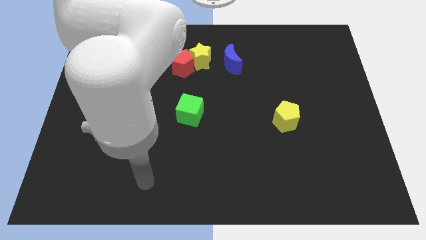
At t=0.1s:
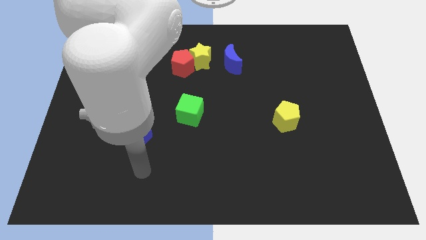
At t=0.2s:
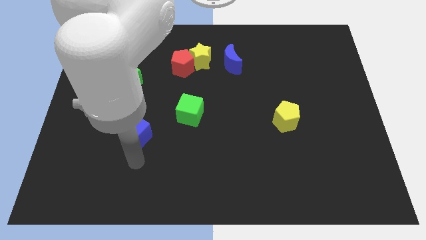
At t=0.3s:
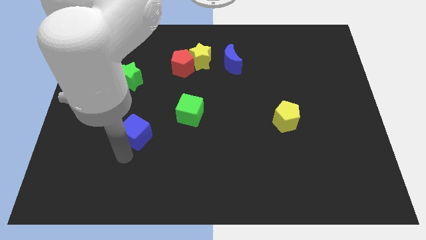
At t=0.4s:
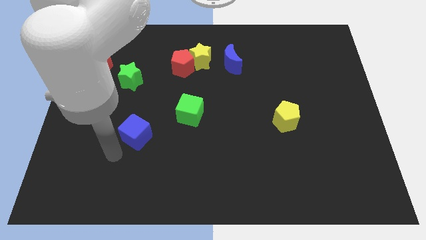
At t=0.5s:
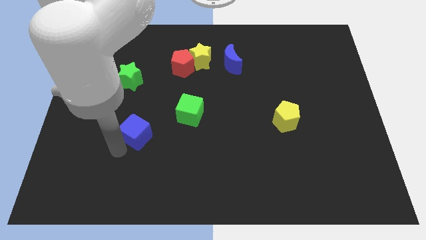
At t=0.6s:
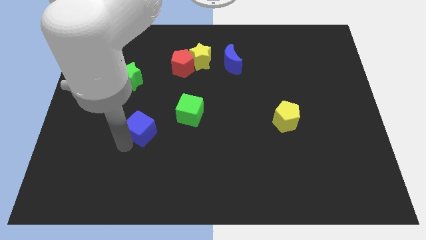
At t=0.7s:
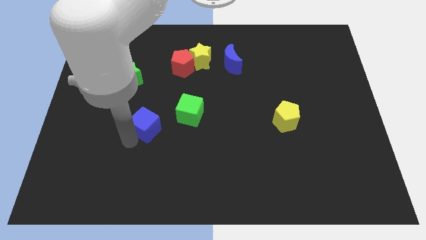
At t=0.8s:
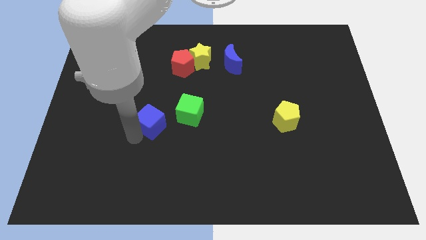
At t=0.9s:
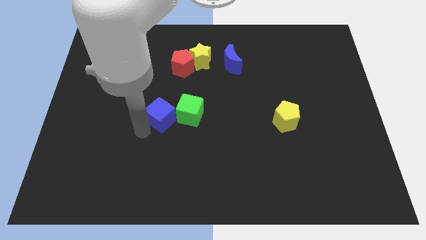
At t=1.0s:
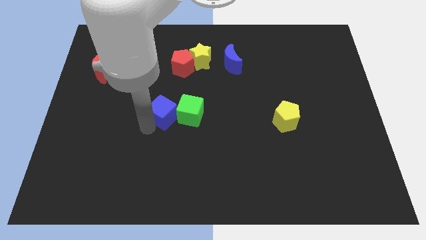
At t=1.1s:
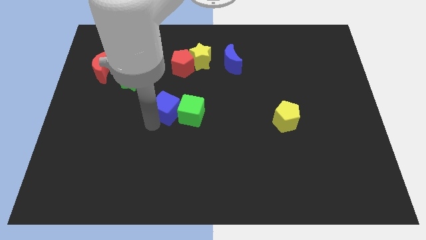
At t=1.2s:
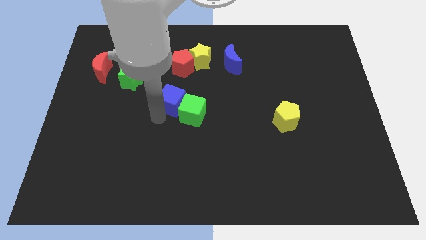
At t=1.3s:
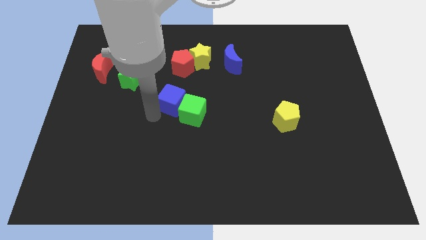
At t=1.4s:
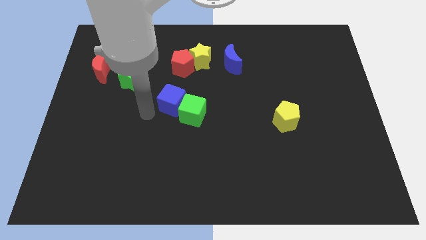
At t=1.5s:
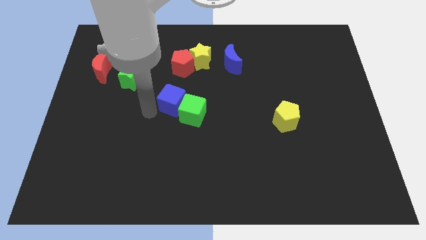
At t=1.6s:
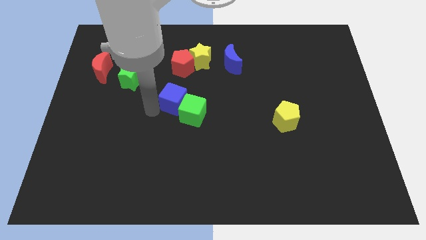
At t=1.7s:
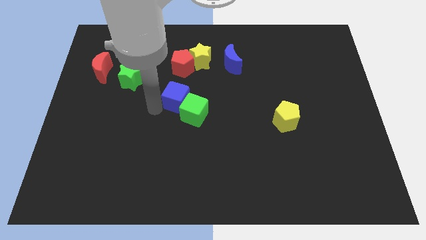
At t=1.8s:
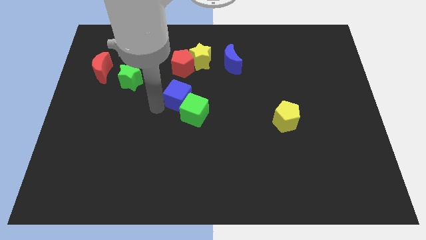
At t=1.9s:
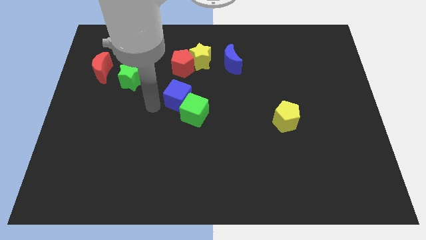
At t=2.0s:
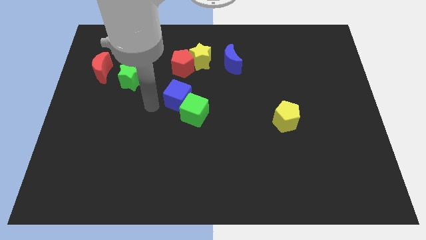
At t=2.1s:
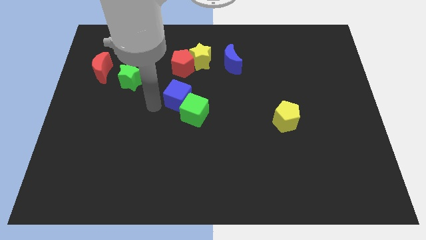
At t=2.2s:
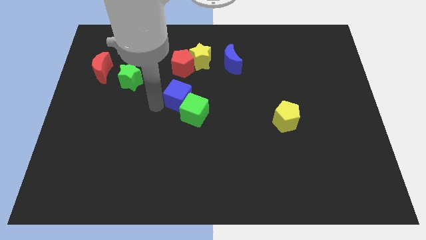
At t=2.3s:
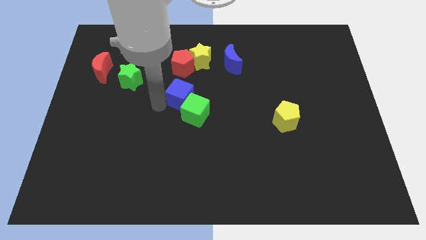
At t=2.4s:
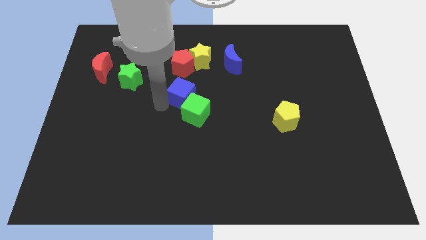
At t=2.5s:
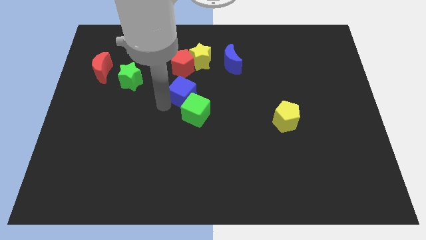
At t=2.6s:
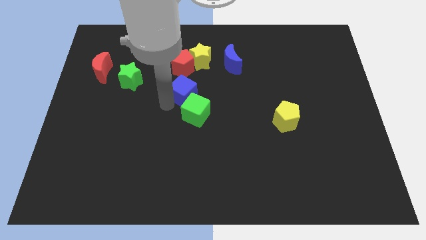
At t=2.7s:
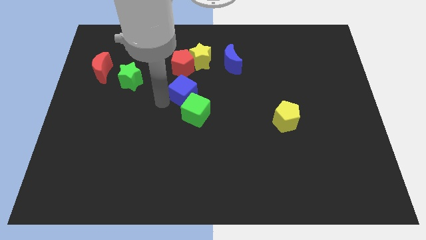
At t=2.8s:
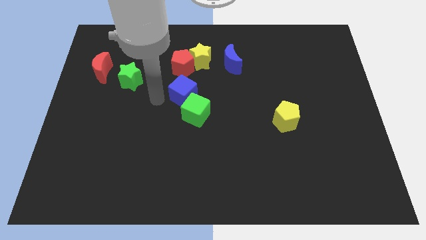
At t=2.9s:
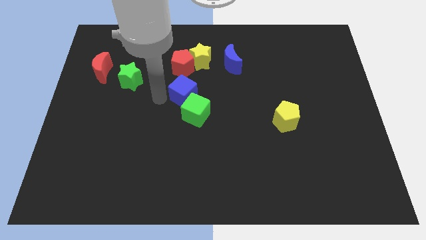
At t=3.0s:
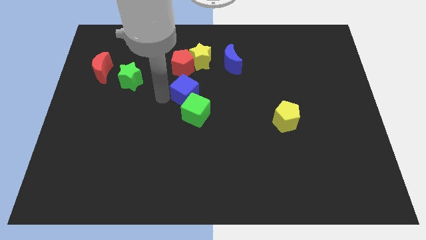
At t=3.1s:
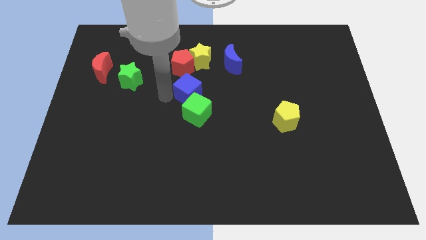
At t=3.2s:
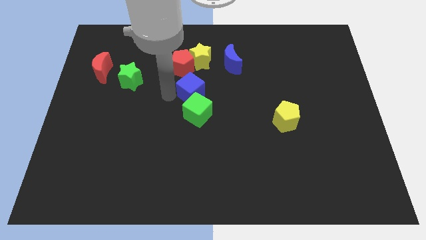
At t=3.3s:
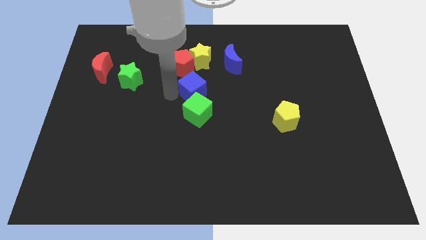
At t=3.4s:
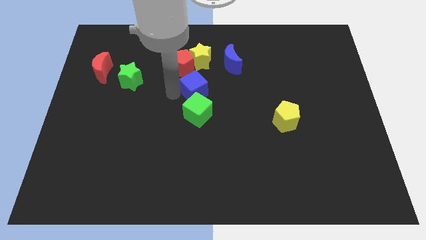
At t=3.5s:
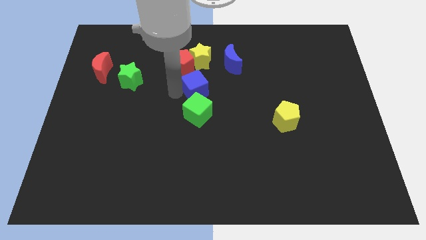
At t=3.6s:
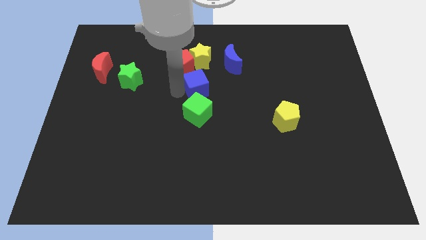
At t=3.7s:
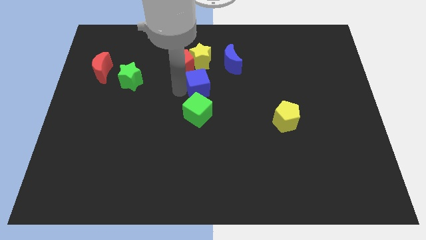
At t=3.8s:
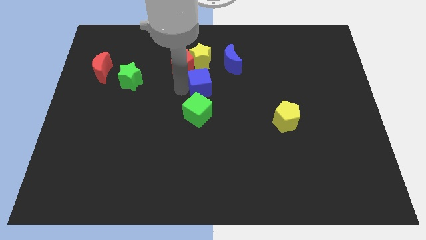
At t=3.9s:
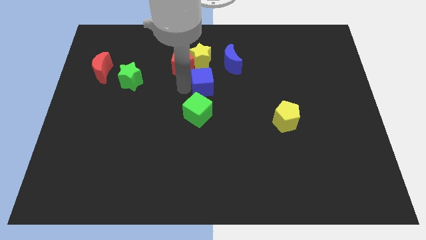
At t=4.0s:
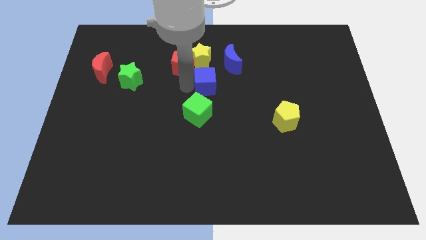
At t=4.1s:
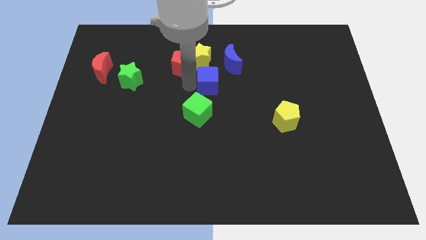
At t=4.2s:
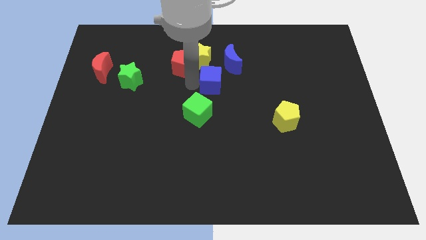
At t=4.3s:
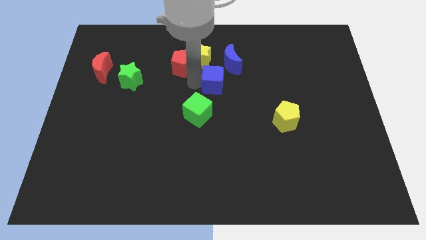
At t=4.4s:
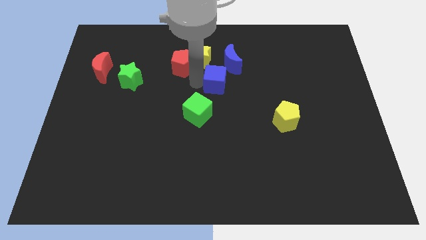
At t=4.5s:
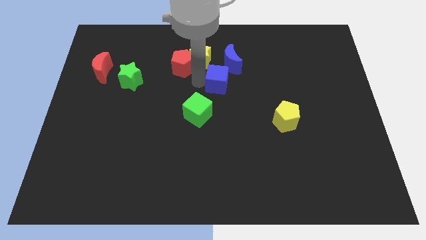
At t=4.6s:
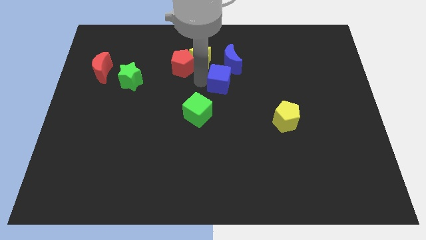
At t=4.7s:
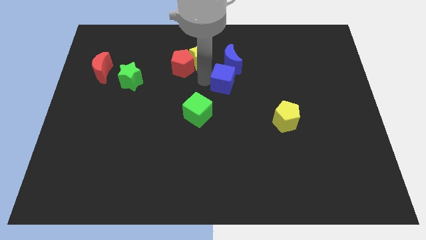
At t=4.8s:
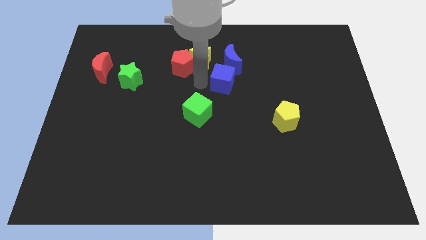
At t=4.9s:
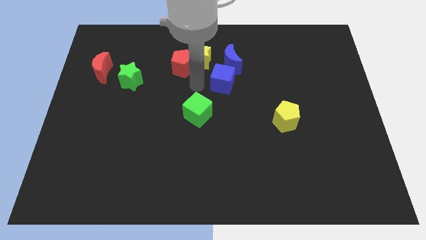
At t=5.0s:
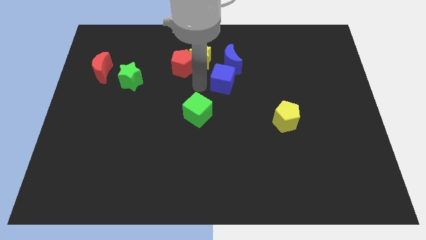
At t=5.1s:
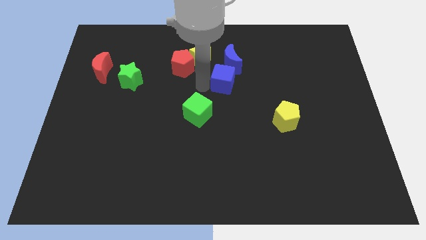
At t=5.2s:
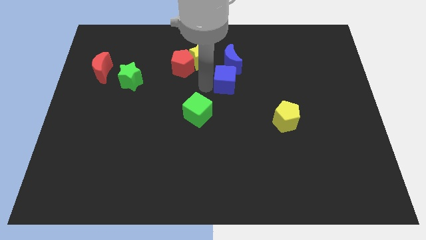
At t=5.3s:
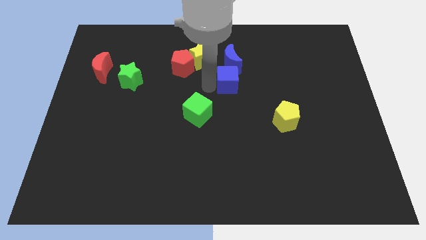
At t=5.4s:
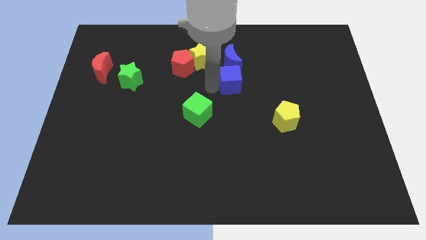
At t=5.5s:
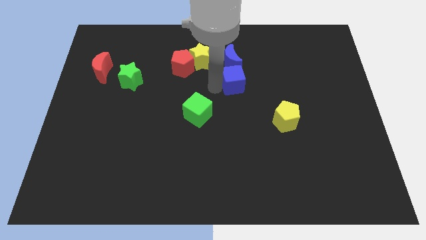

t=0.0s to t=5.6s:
move the blue cube to the bottom right of the blue moon

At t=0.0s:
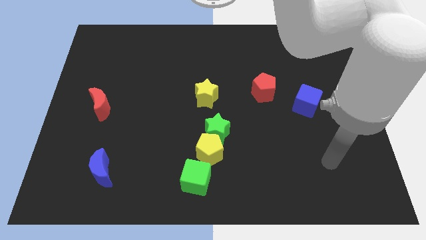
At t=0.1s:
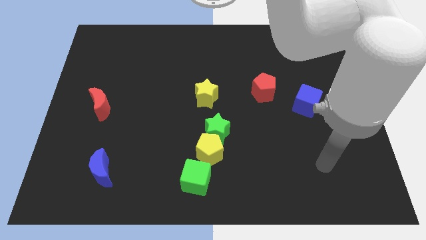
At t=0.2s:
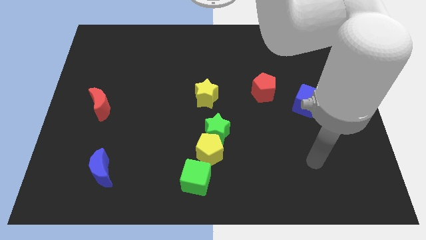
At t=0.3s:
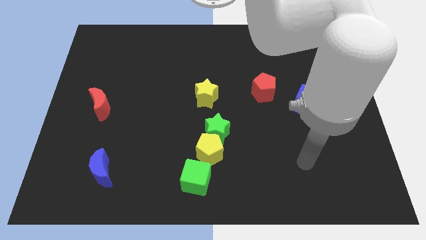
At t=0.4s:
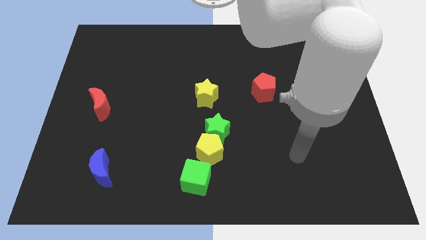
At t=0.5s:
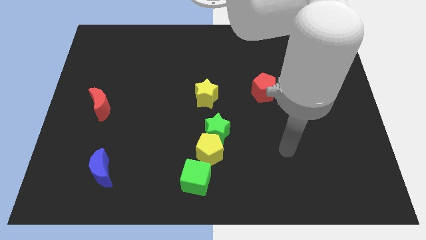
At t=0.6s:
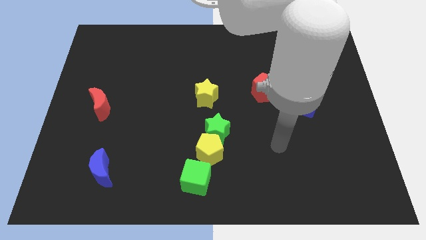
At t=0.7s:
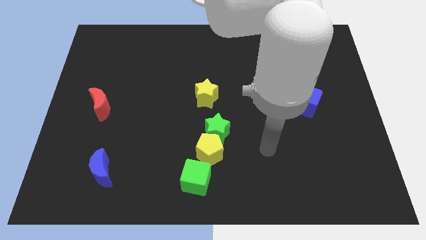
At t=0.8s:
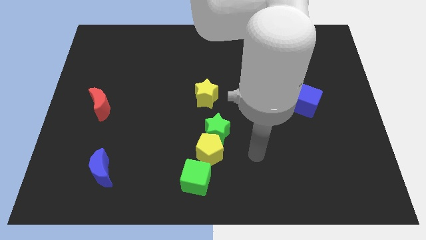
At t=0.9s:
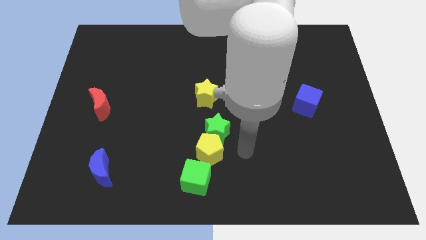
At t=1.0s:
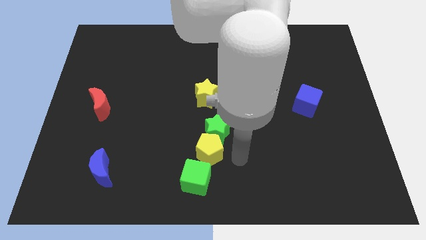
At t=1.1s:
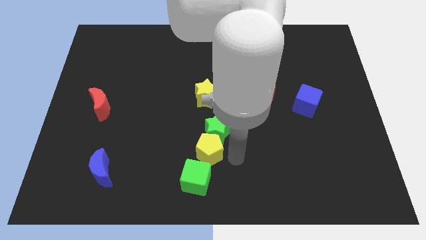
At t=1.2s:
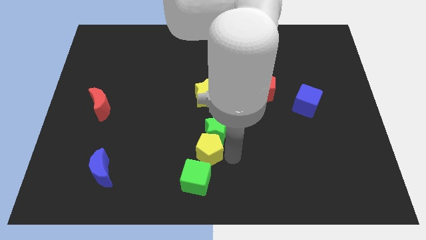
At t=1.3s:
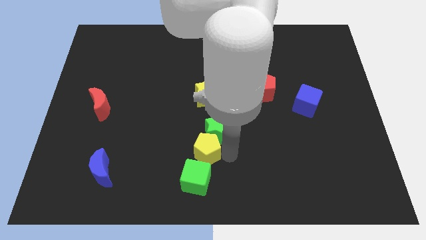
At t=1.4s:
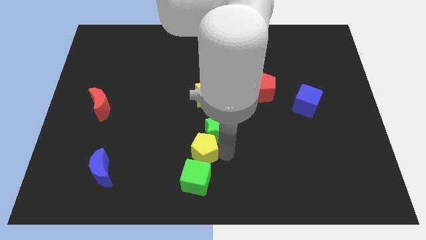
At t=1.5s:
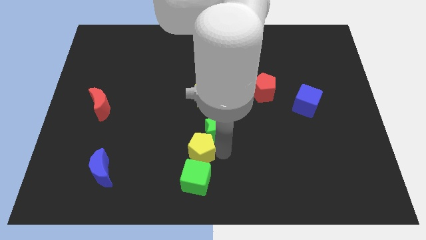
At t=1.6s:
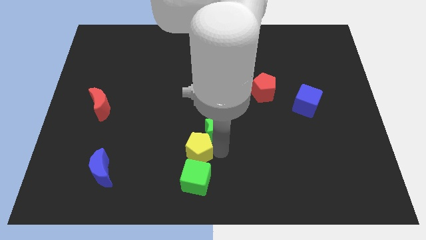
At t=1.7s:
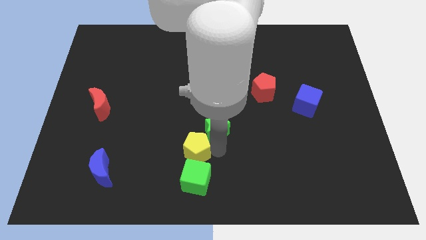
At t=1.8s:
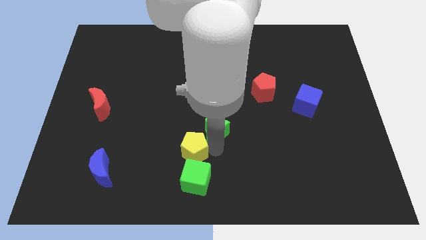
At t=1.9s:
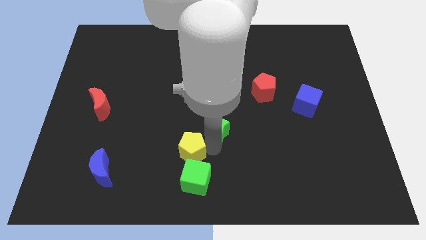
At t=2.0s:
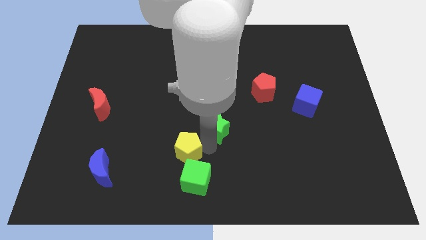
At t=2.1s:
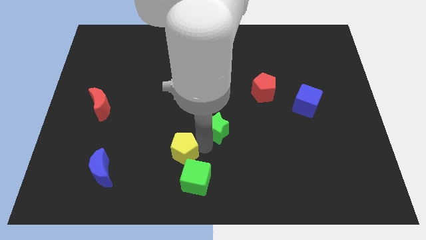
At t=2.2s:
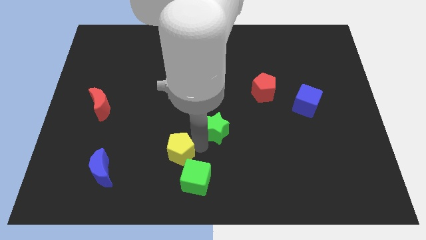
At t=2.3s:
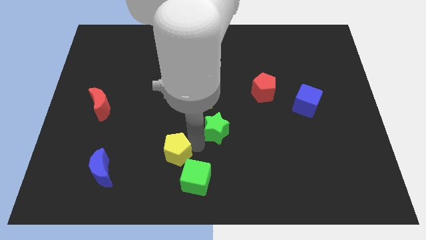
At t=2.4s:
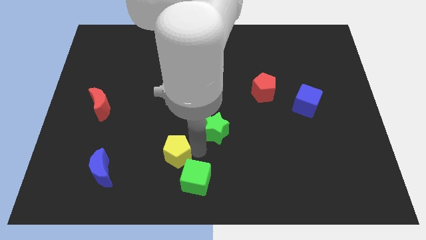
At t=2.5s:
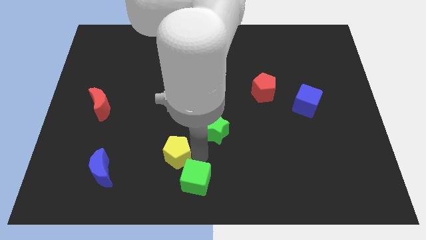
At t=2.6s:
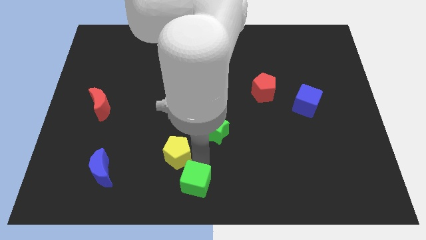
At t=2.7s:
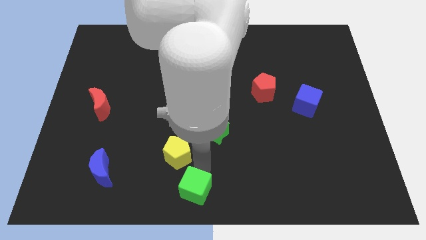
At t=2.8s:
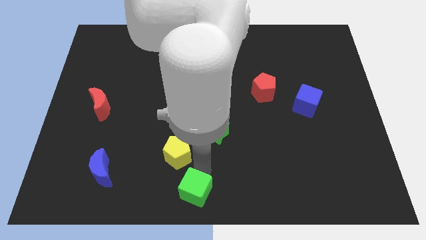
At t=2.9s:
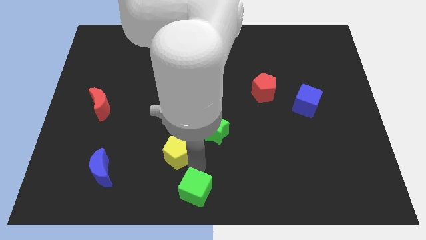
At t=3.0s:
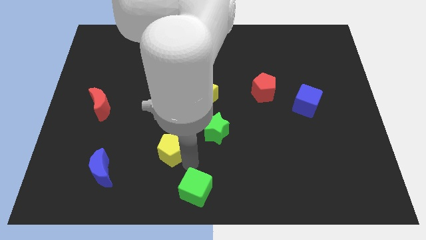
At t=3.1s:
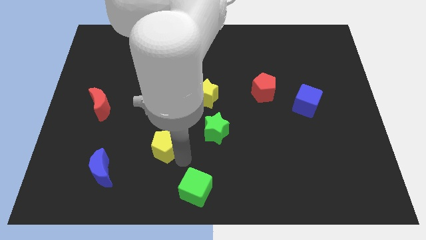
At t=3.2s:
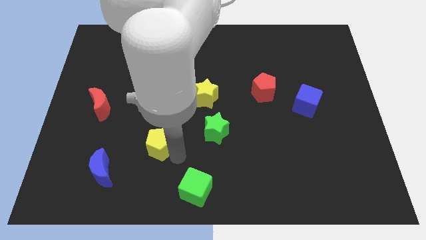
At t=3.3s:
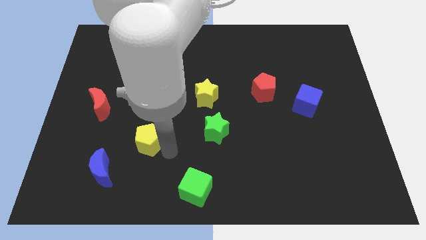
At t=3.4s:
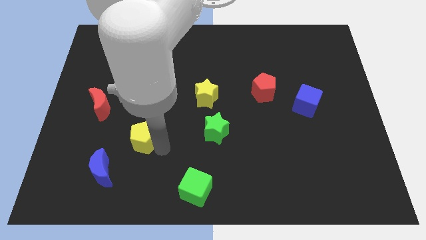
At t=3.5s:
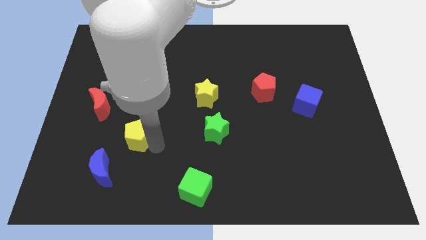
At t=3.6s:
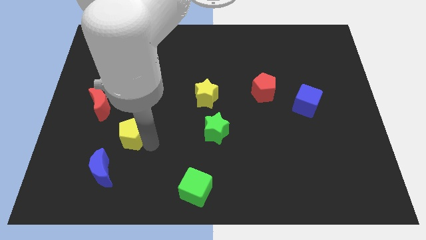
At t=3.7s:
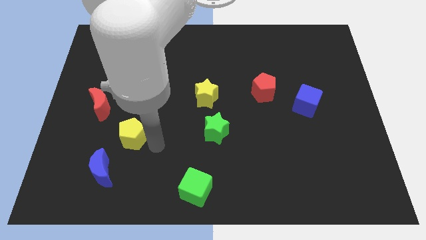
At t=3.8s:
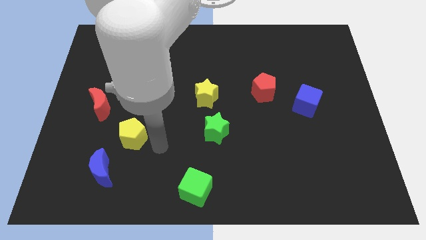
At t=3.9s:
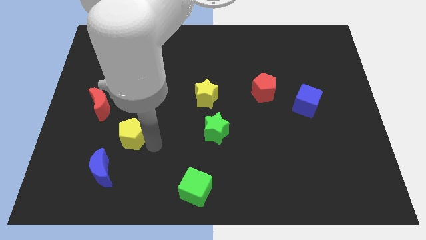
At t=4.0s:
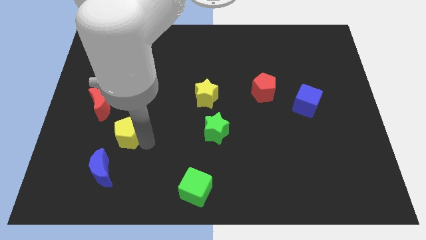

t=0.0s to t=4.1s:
push the yellow pentagon to the top of the blue moon
